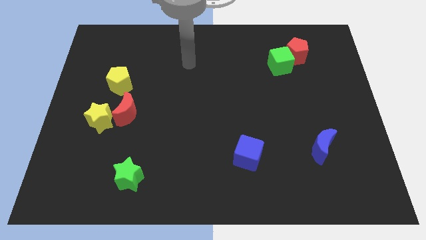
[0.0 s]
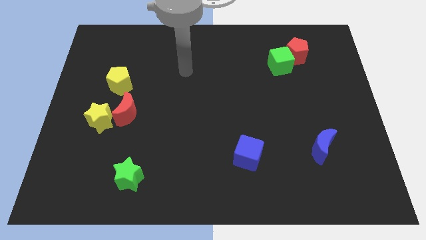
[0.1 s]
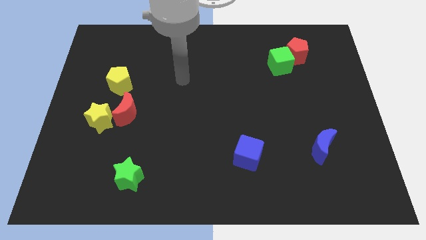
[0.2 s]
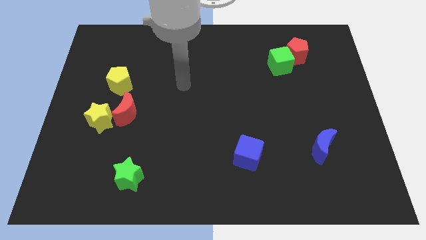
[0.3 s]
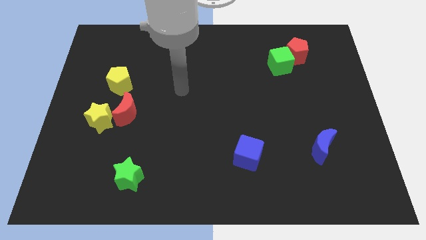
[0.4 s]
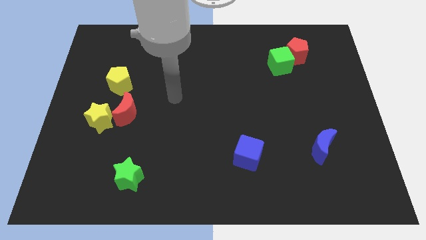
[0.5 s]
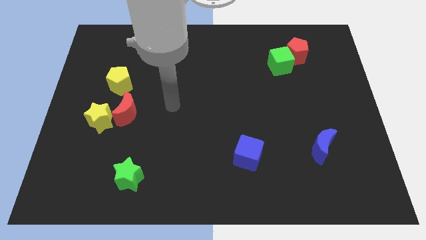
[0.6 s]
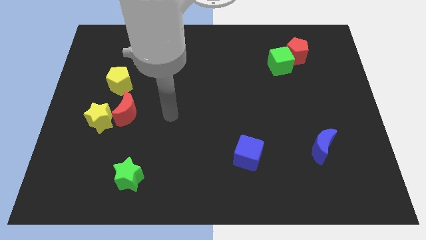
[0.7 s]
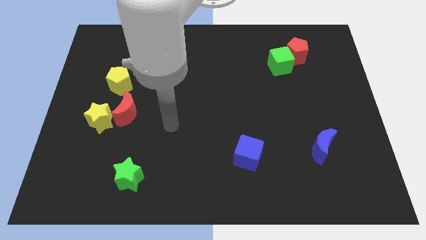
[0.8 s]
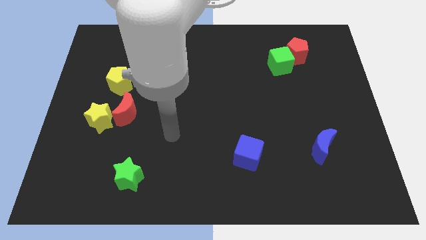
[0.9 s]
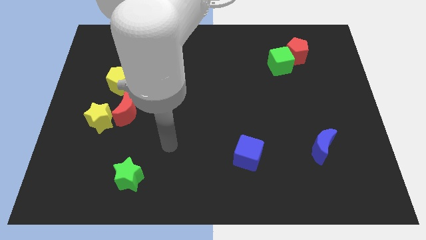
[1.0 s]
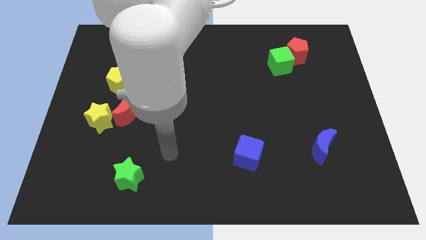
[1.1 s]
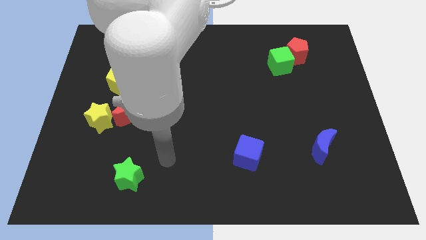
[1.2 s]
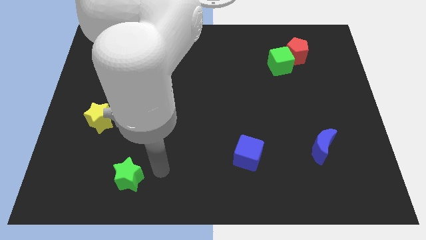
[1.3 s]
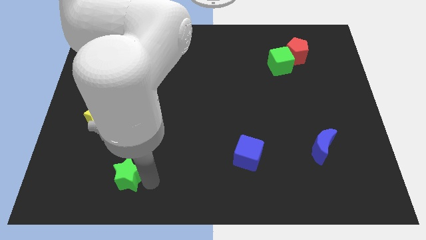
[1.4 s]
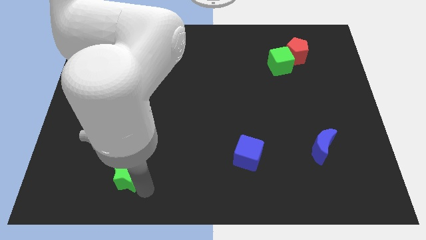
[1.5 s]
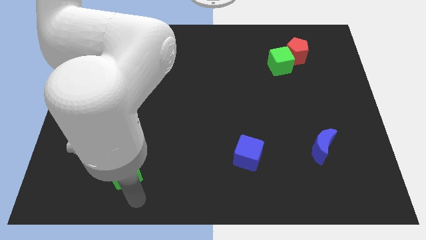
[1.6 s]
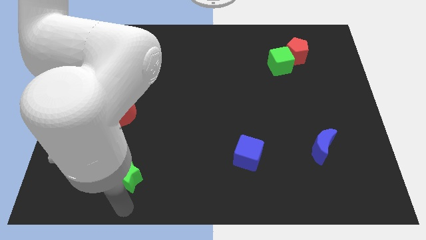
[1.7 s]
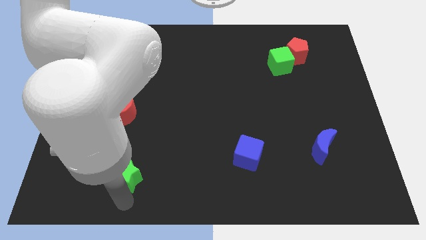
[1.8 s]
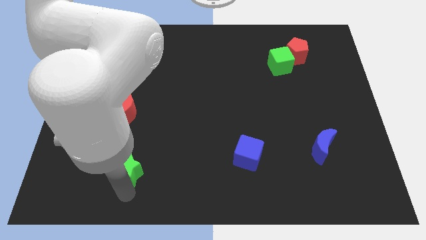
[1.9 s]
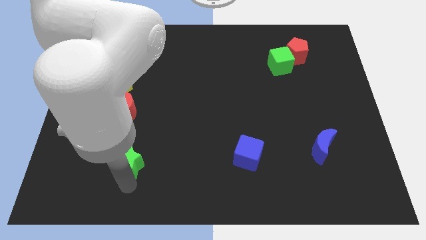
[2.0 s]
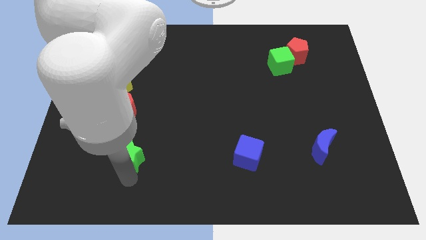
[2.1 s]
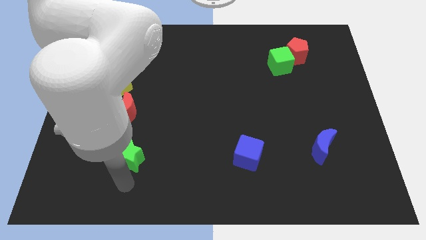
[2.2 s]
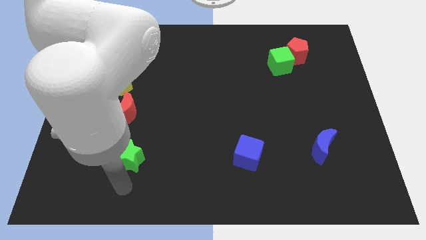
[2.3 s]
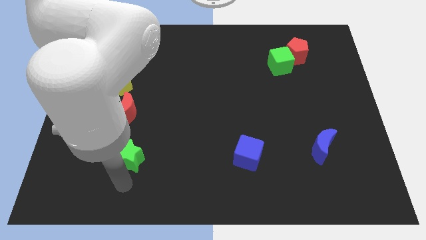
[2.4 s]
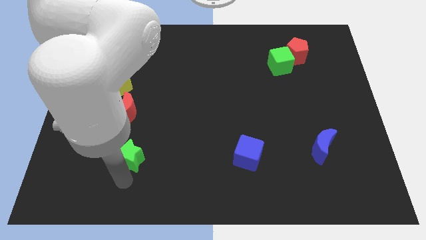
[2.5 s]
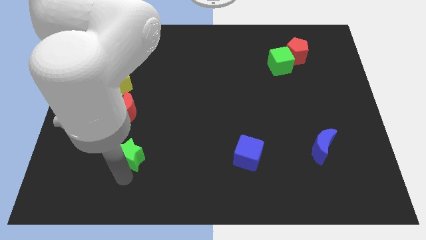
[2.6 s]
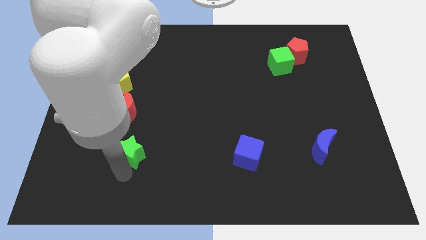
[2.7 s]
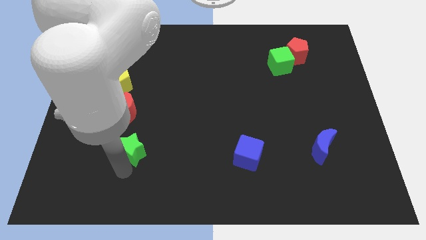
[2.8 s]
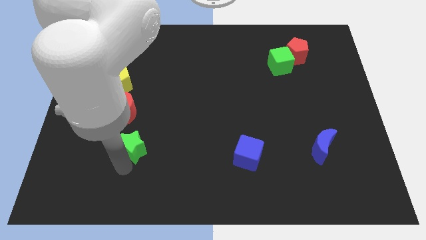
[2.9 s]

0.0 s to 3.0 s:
move the green star upwards a little

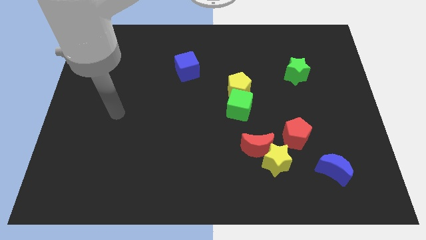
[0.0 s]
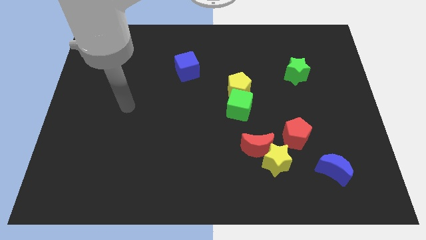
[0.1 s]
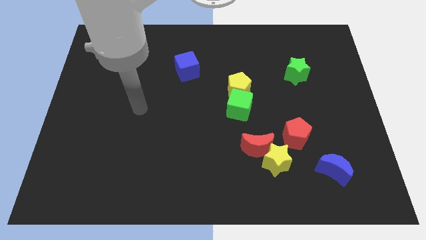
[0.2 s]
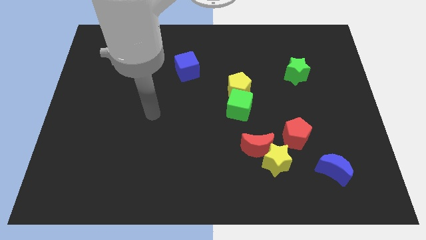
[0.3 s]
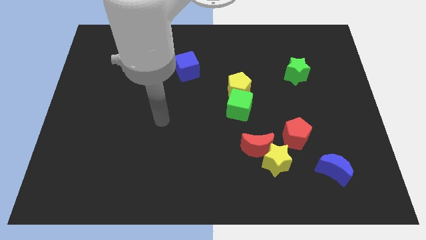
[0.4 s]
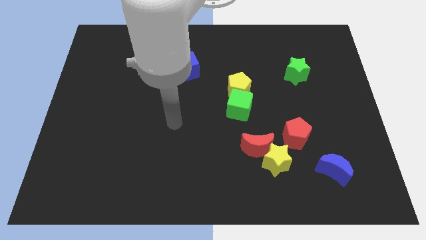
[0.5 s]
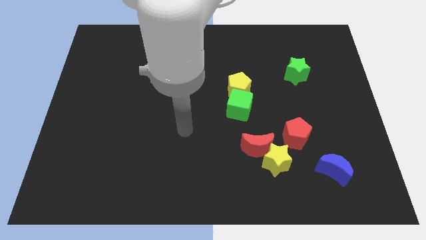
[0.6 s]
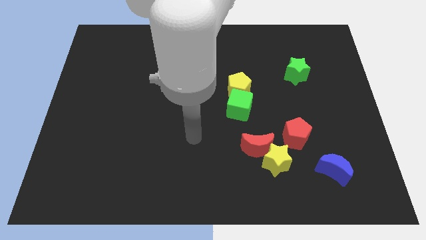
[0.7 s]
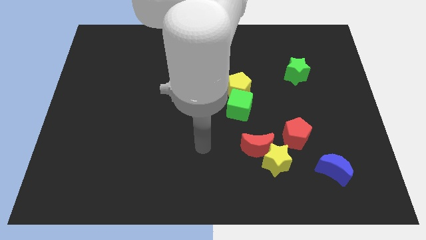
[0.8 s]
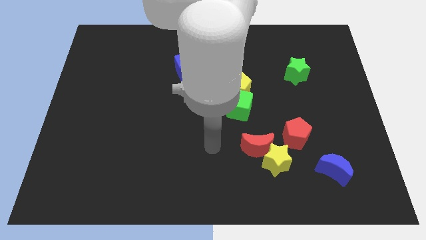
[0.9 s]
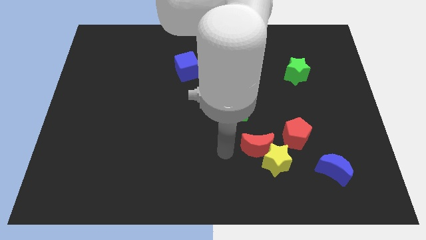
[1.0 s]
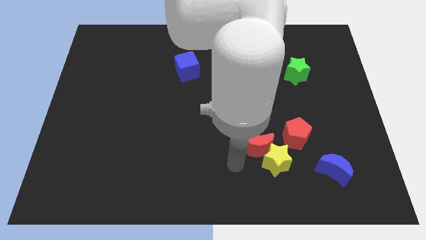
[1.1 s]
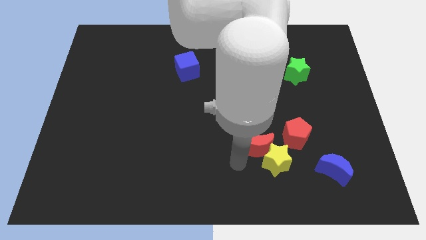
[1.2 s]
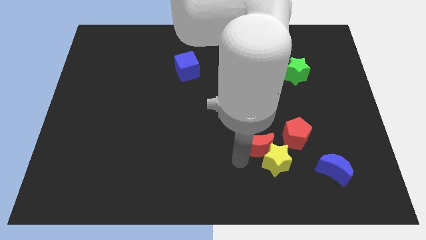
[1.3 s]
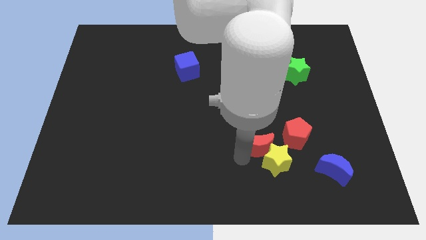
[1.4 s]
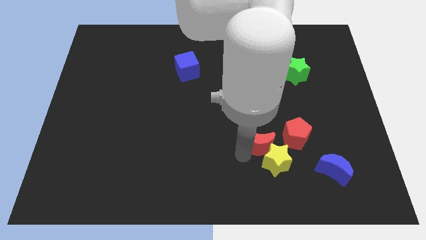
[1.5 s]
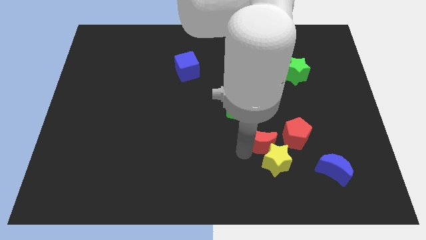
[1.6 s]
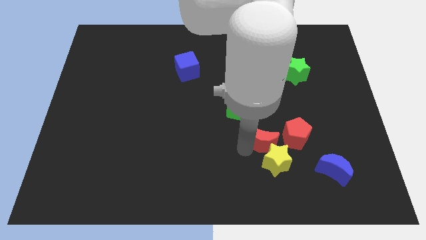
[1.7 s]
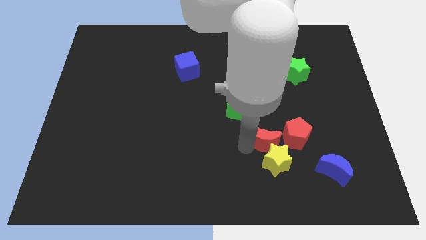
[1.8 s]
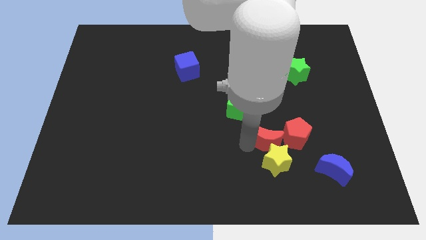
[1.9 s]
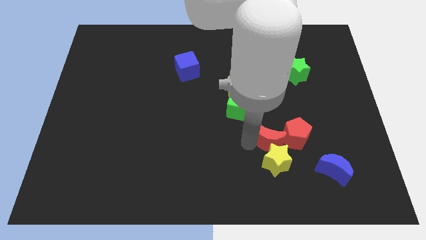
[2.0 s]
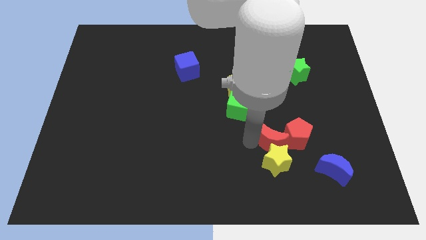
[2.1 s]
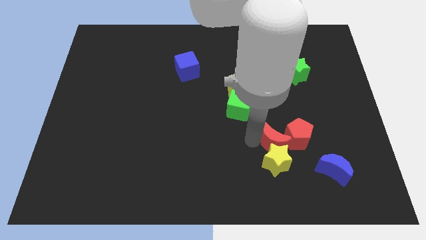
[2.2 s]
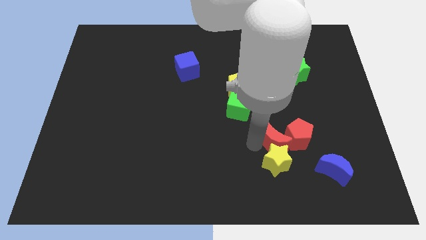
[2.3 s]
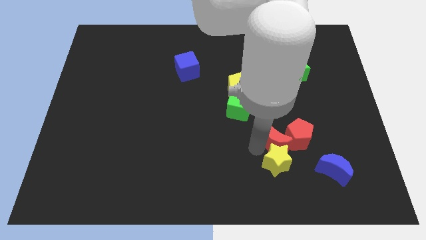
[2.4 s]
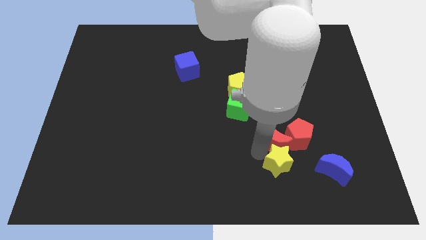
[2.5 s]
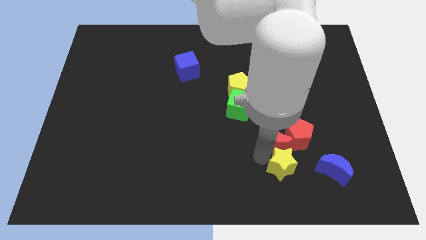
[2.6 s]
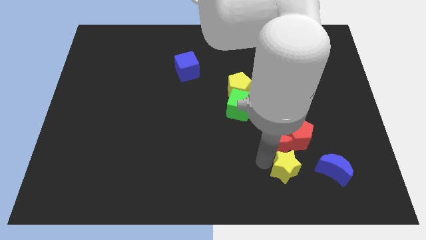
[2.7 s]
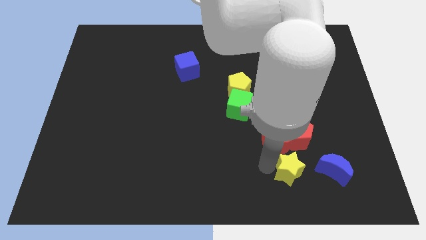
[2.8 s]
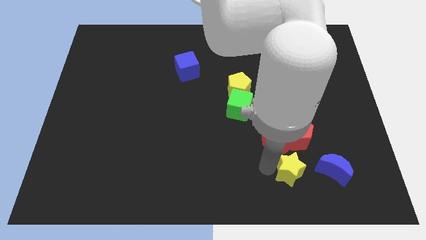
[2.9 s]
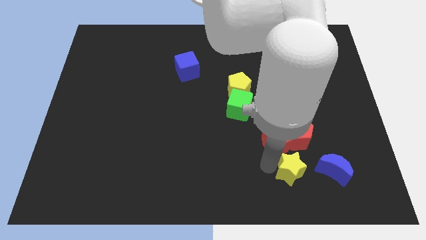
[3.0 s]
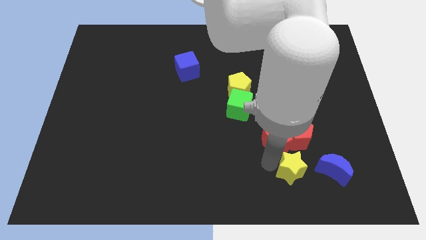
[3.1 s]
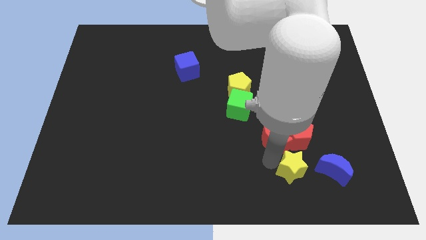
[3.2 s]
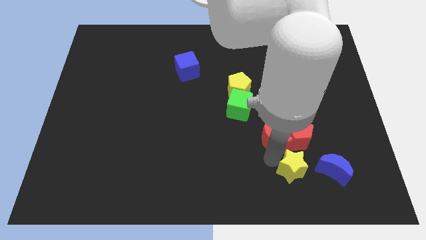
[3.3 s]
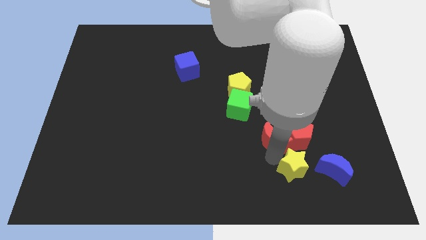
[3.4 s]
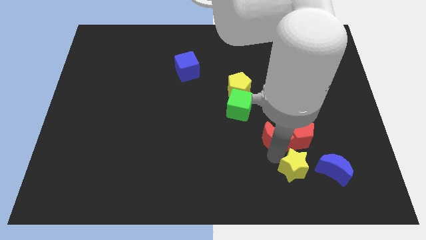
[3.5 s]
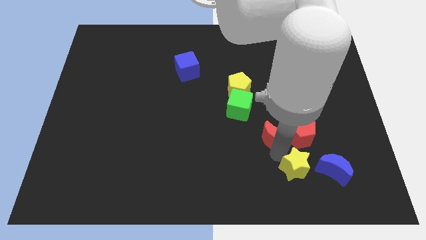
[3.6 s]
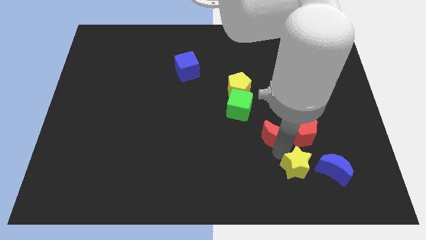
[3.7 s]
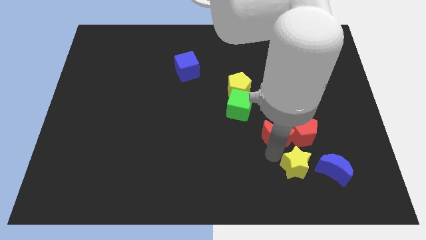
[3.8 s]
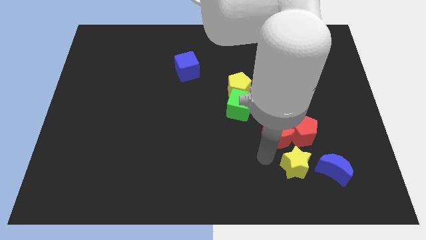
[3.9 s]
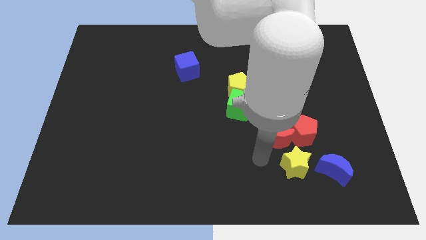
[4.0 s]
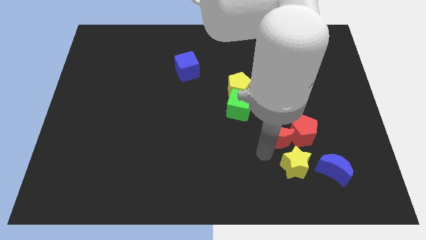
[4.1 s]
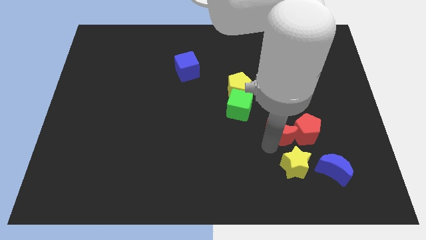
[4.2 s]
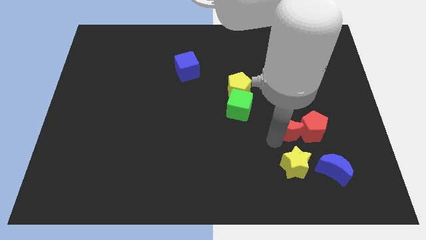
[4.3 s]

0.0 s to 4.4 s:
move the red moon a bit upwards and right

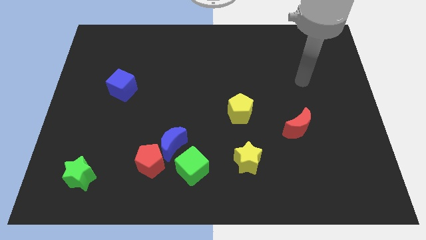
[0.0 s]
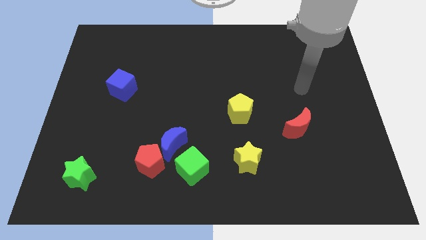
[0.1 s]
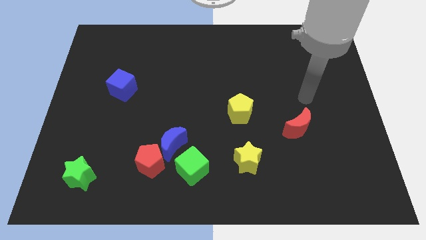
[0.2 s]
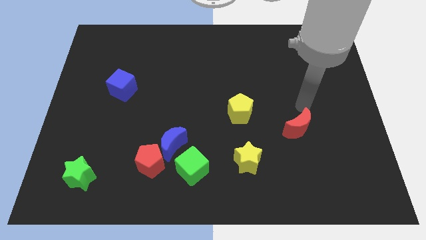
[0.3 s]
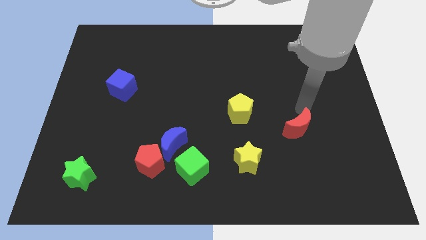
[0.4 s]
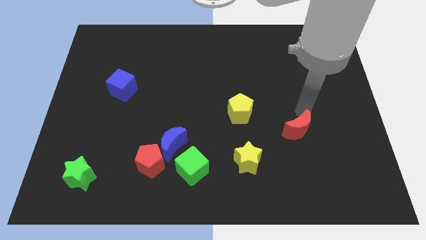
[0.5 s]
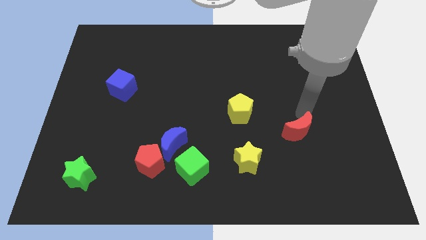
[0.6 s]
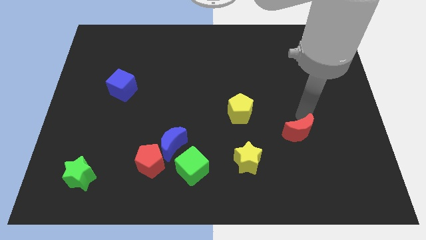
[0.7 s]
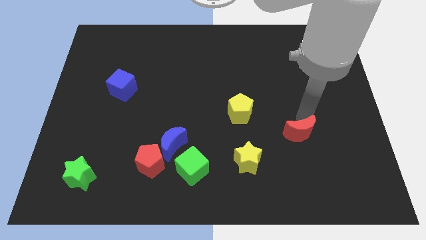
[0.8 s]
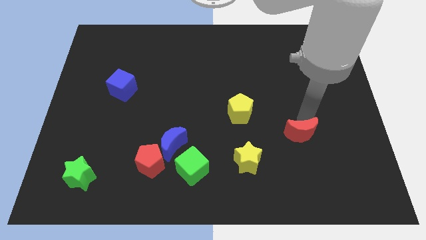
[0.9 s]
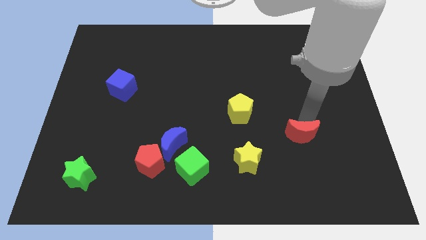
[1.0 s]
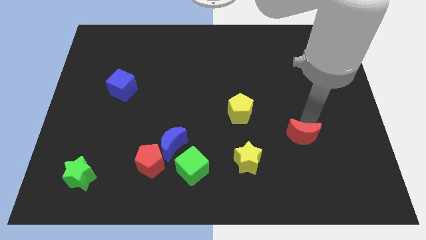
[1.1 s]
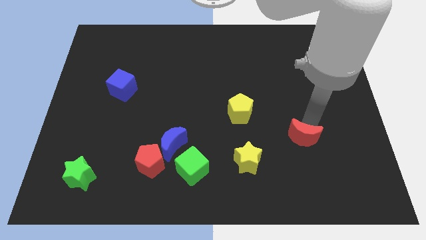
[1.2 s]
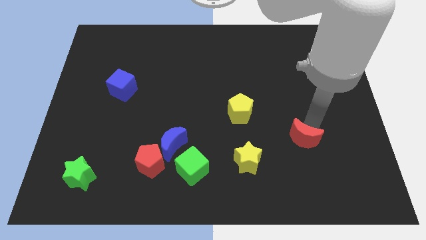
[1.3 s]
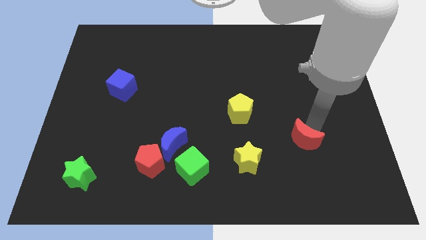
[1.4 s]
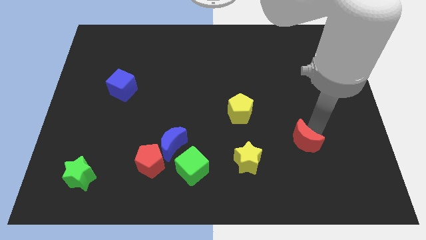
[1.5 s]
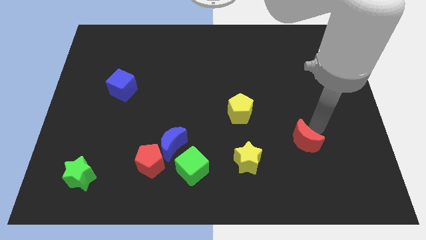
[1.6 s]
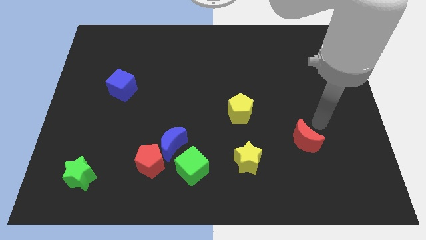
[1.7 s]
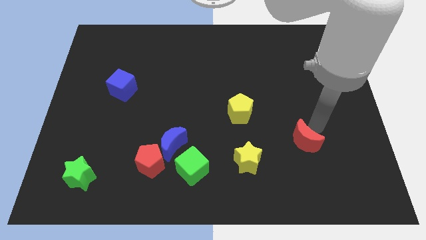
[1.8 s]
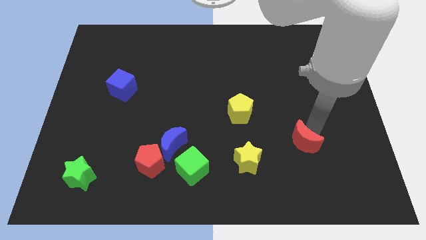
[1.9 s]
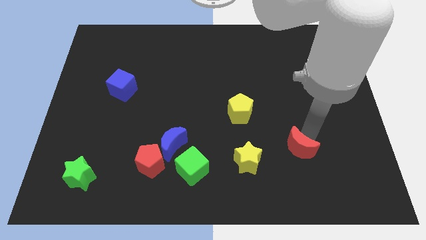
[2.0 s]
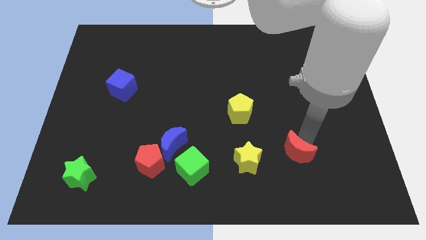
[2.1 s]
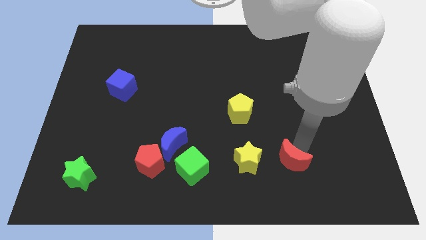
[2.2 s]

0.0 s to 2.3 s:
slightly push the red moon downwards and left diagonally
